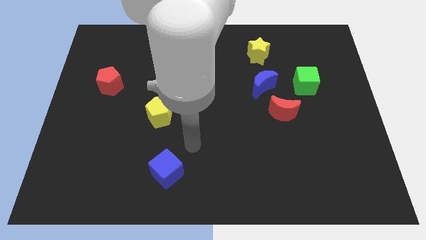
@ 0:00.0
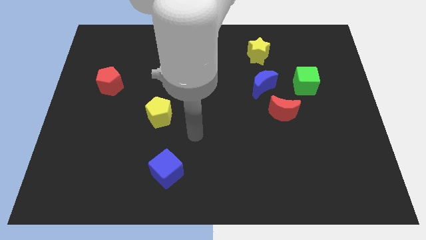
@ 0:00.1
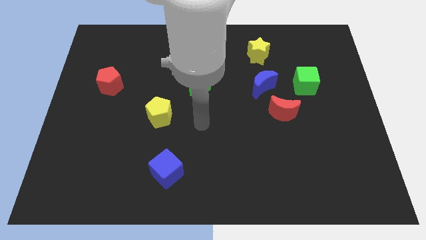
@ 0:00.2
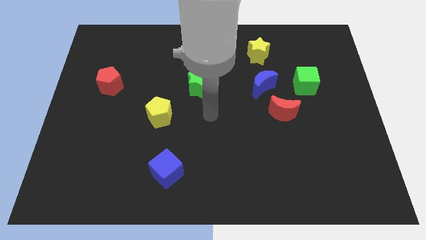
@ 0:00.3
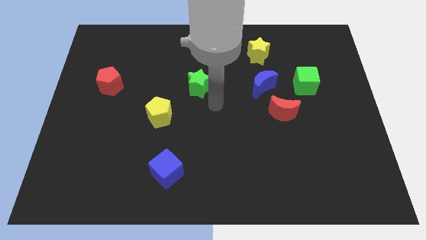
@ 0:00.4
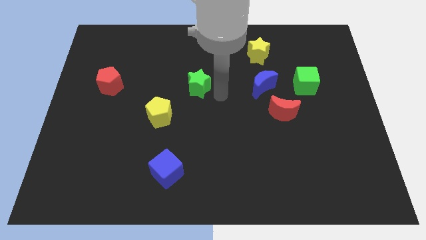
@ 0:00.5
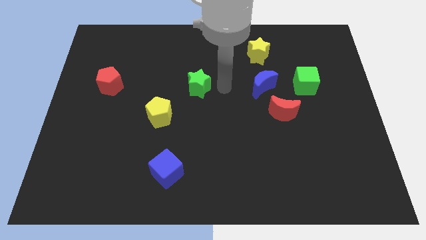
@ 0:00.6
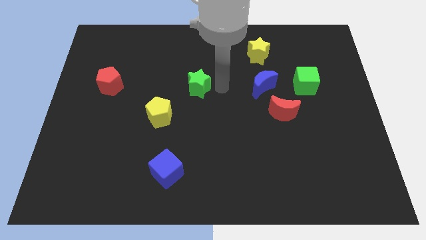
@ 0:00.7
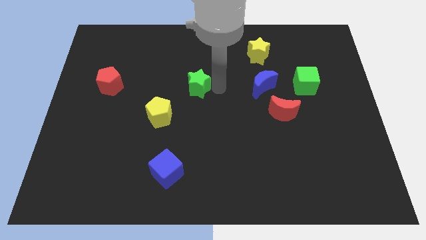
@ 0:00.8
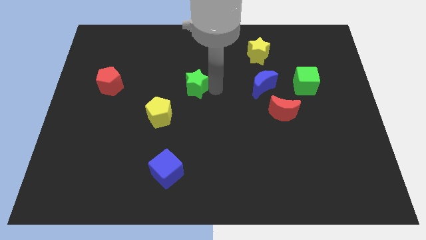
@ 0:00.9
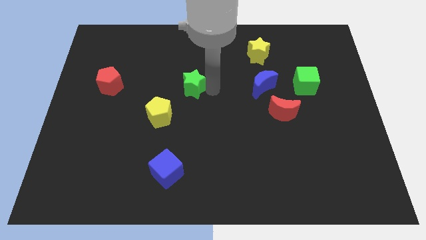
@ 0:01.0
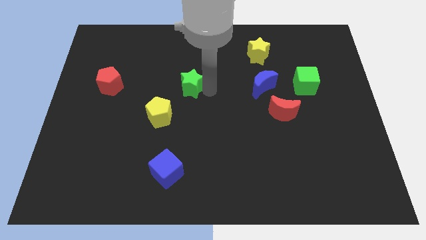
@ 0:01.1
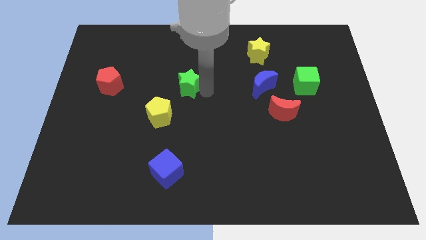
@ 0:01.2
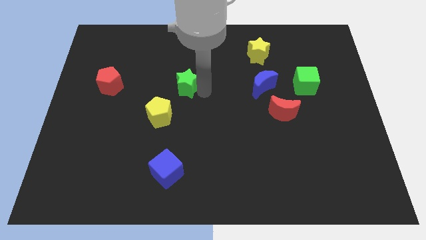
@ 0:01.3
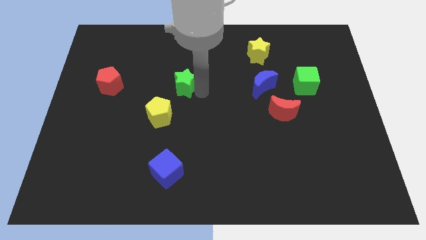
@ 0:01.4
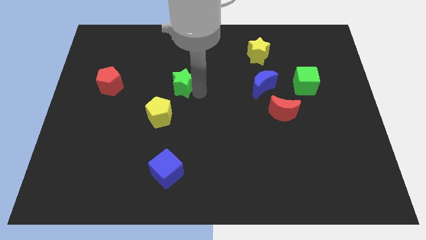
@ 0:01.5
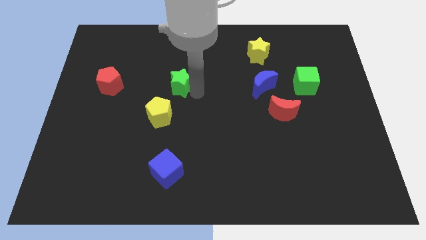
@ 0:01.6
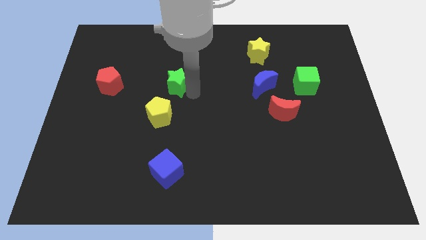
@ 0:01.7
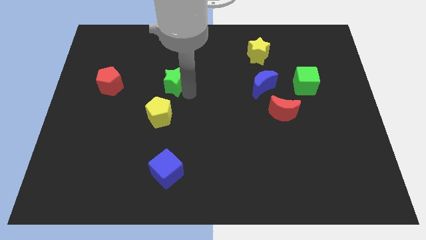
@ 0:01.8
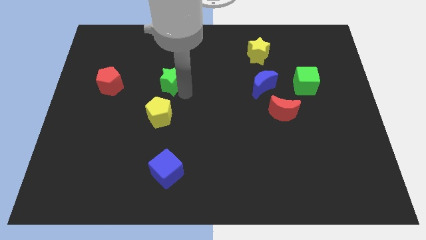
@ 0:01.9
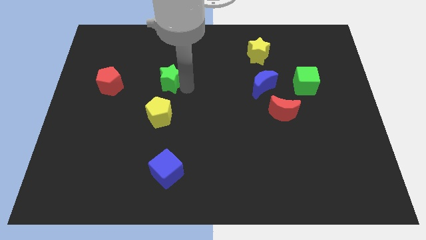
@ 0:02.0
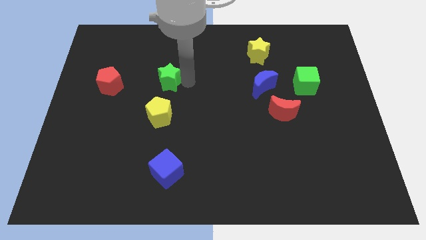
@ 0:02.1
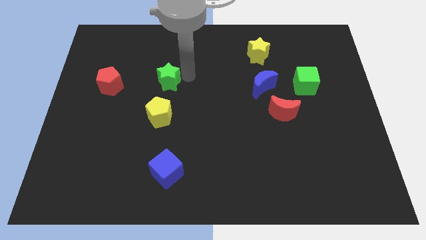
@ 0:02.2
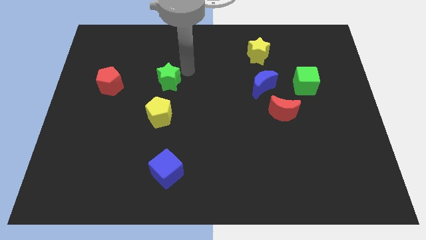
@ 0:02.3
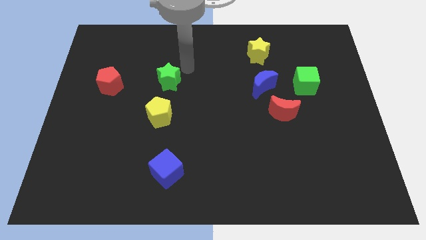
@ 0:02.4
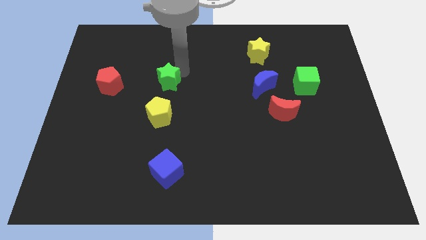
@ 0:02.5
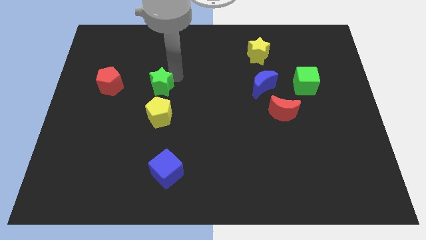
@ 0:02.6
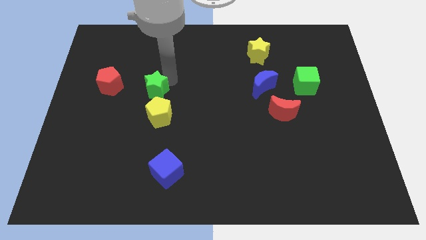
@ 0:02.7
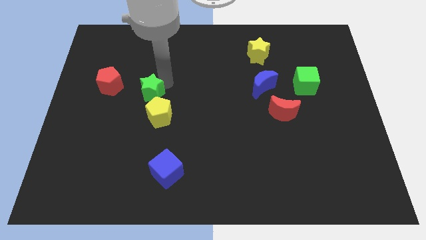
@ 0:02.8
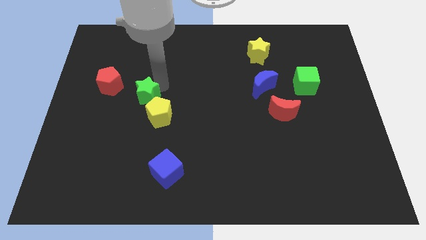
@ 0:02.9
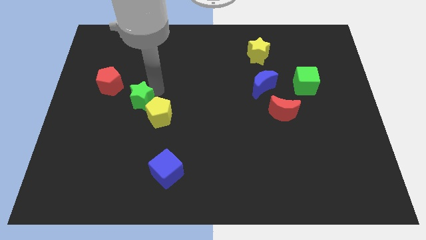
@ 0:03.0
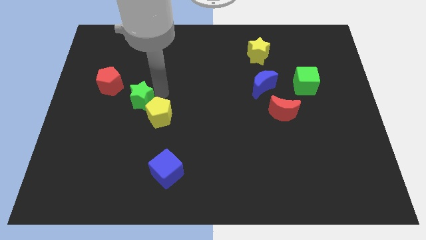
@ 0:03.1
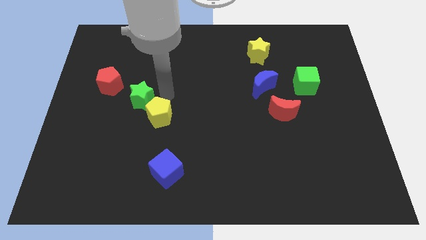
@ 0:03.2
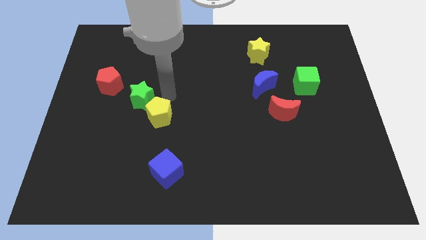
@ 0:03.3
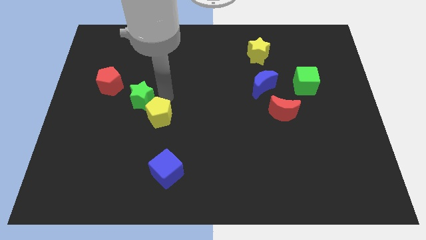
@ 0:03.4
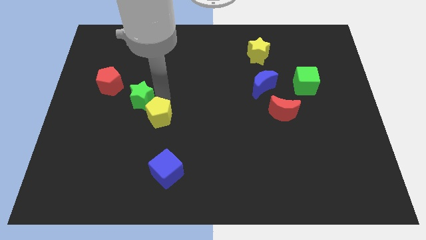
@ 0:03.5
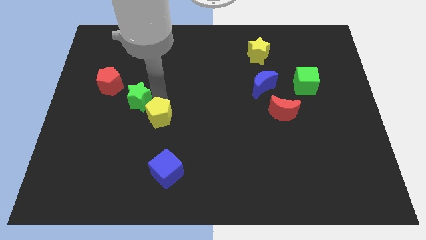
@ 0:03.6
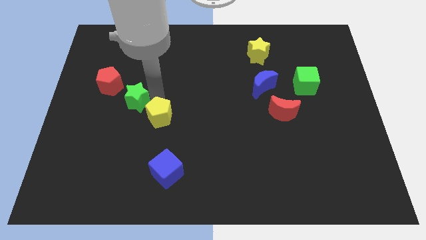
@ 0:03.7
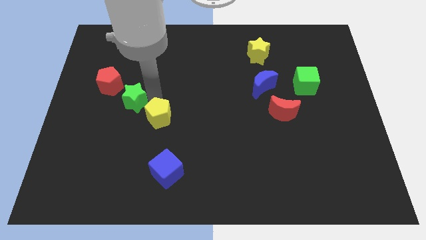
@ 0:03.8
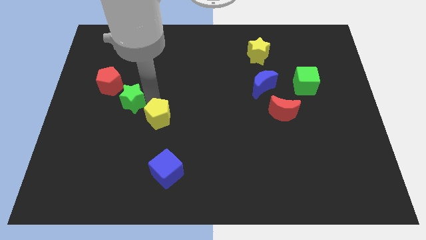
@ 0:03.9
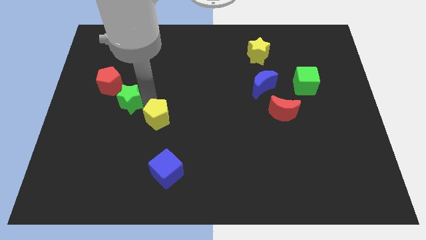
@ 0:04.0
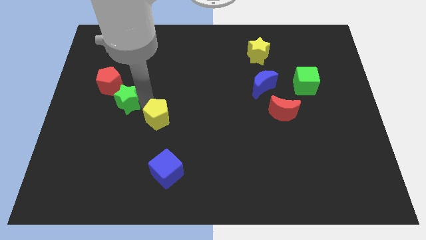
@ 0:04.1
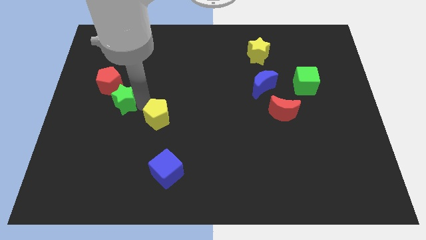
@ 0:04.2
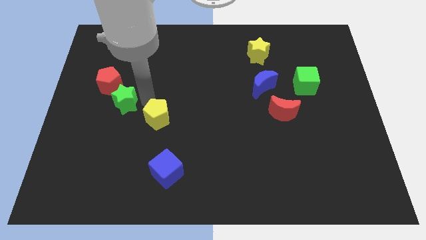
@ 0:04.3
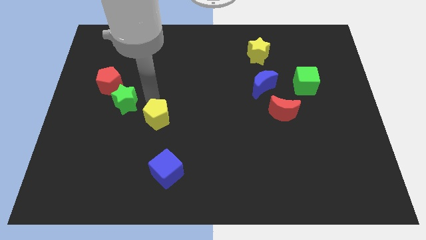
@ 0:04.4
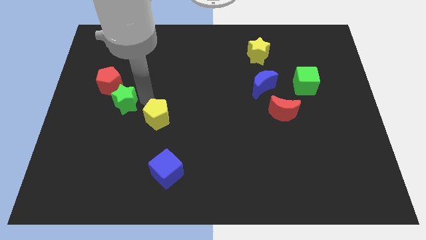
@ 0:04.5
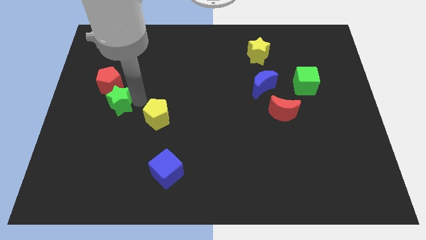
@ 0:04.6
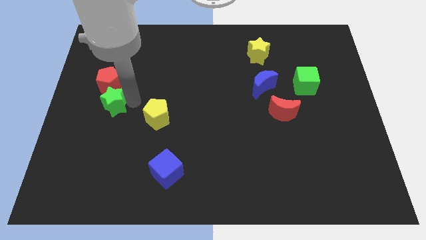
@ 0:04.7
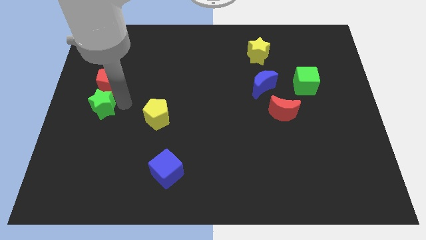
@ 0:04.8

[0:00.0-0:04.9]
slide the green star to the center left

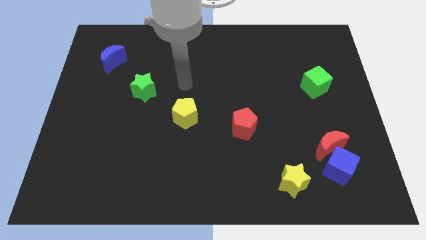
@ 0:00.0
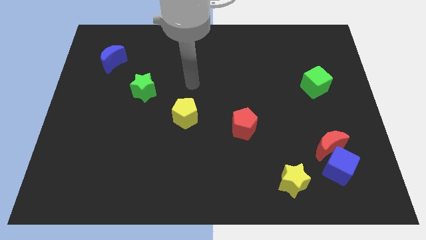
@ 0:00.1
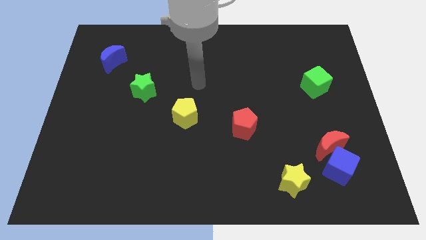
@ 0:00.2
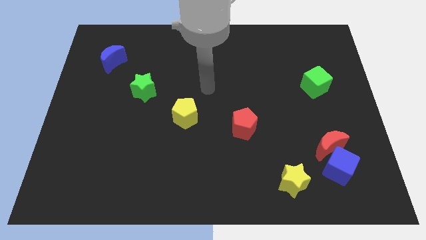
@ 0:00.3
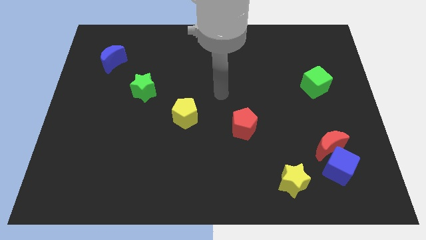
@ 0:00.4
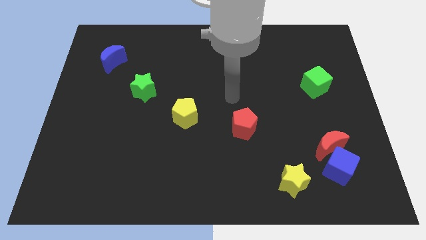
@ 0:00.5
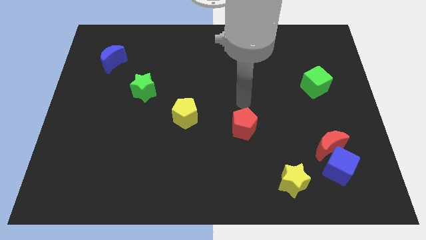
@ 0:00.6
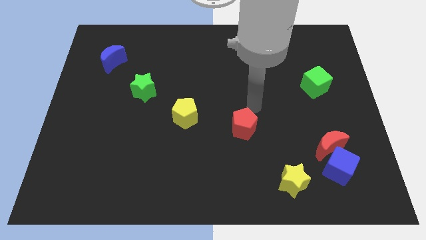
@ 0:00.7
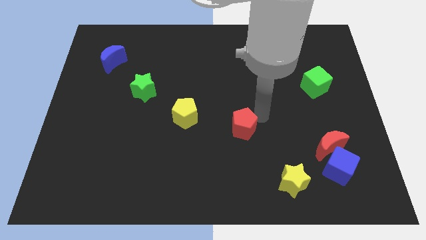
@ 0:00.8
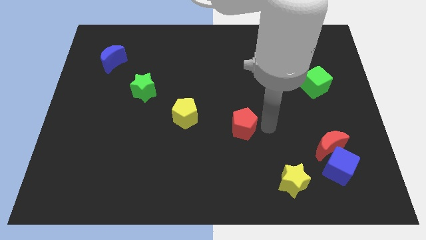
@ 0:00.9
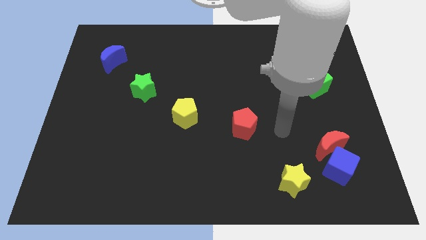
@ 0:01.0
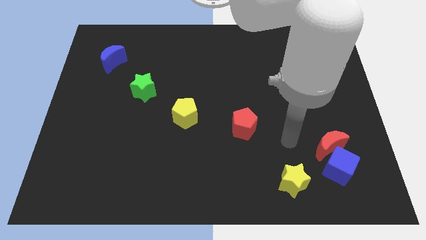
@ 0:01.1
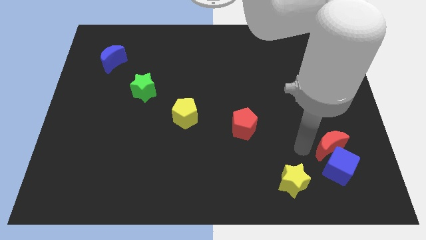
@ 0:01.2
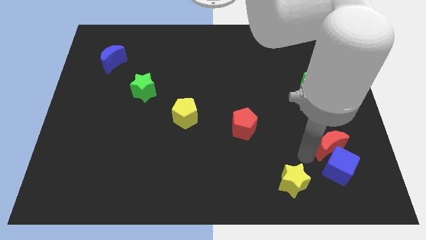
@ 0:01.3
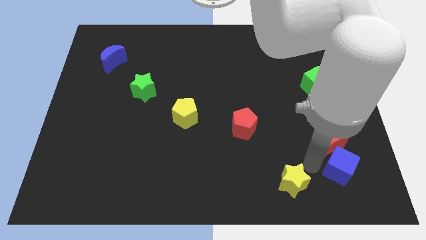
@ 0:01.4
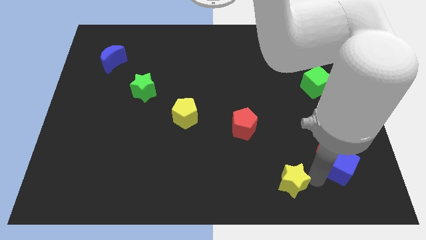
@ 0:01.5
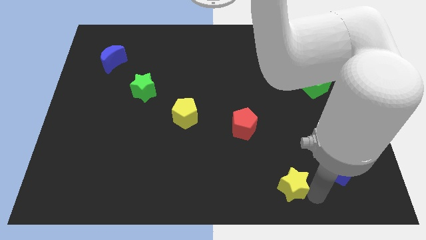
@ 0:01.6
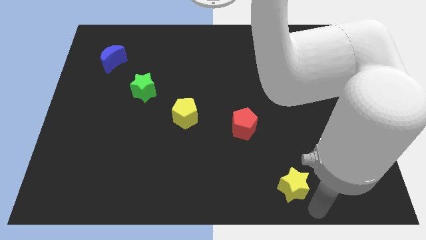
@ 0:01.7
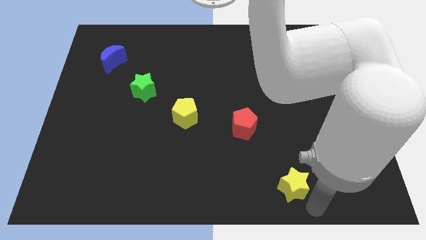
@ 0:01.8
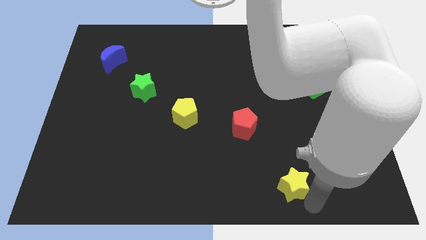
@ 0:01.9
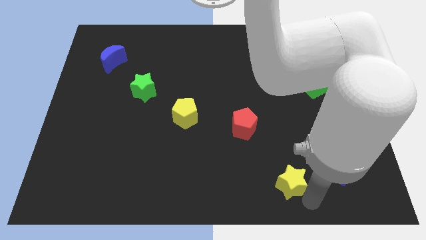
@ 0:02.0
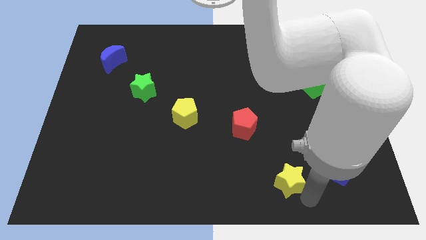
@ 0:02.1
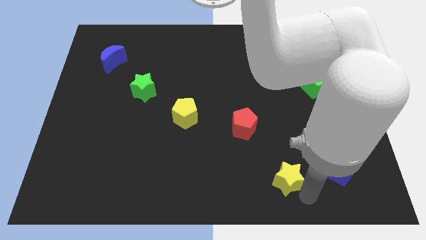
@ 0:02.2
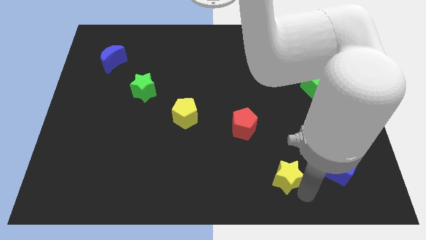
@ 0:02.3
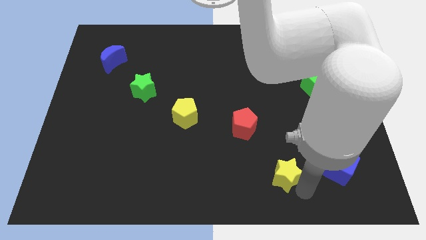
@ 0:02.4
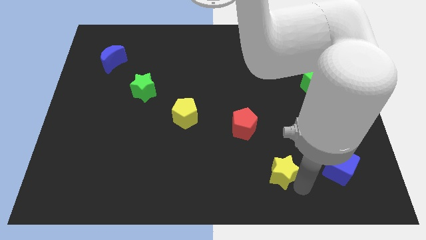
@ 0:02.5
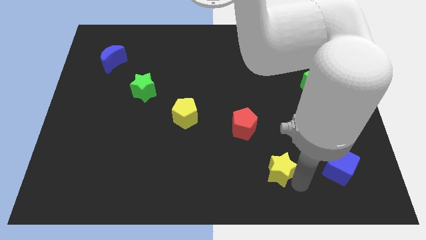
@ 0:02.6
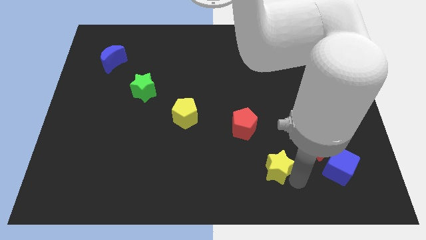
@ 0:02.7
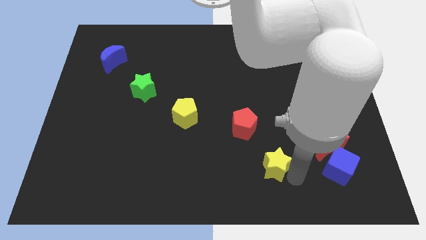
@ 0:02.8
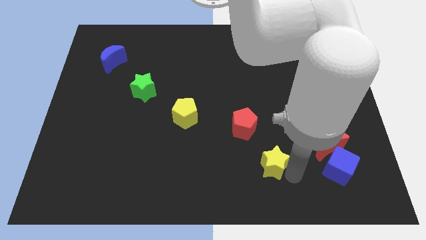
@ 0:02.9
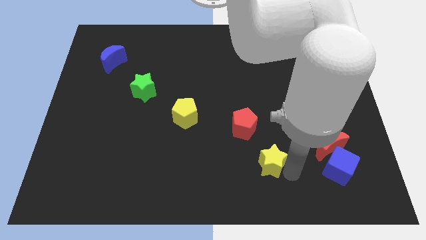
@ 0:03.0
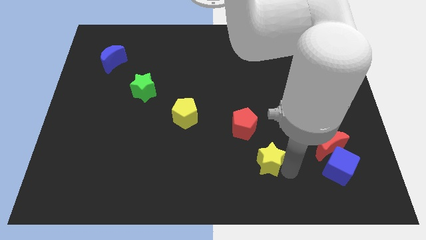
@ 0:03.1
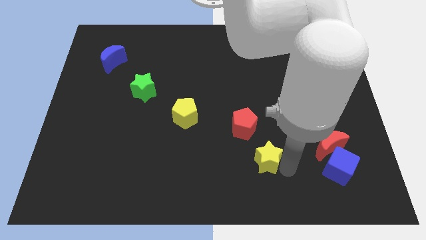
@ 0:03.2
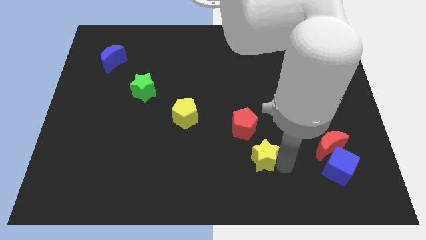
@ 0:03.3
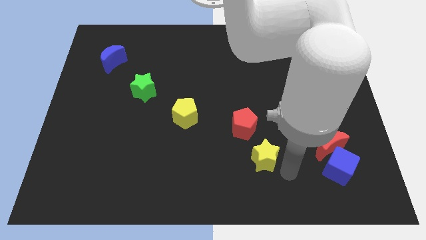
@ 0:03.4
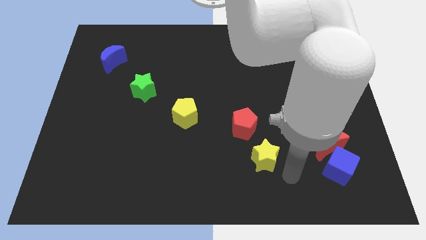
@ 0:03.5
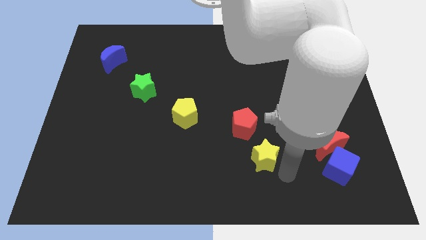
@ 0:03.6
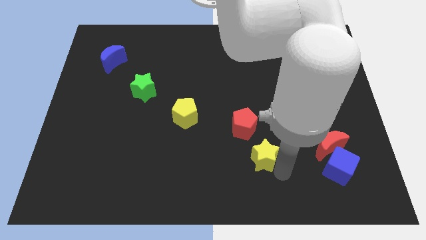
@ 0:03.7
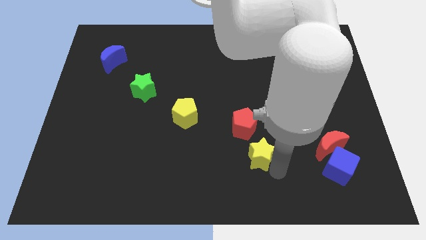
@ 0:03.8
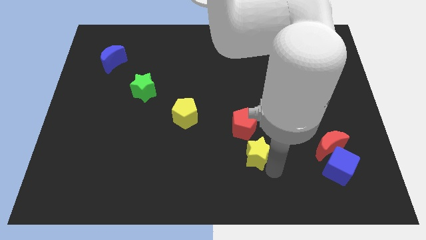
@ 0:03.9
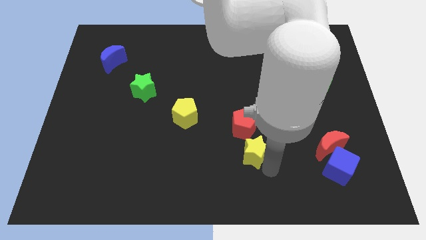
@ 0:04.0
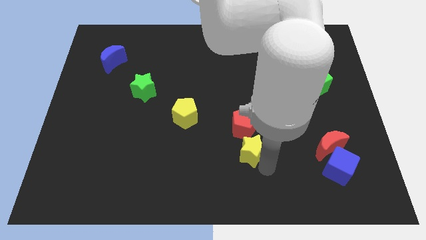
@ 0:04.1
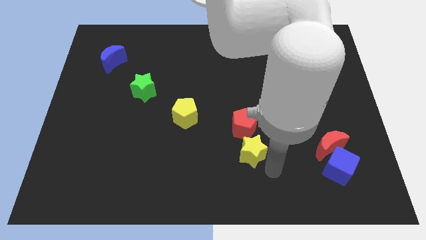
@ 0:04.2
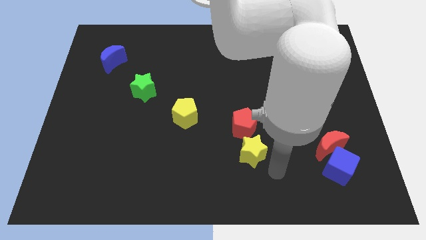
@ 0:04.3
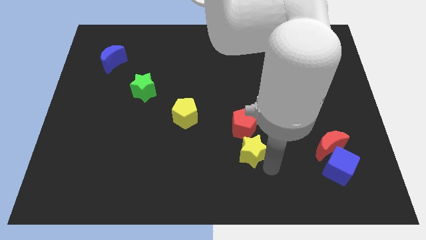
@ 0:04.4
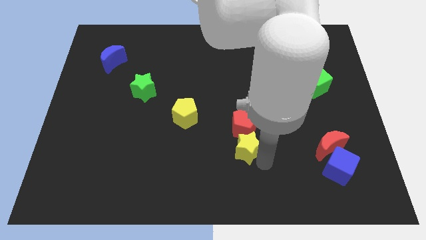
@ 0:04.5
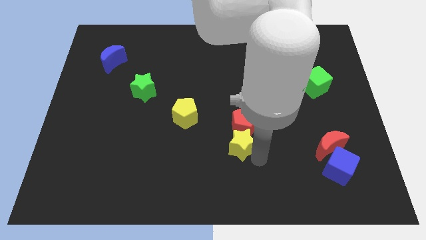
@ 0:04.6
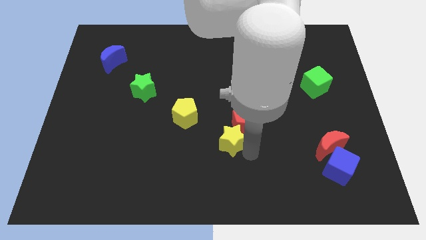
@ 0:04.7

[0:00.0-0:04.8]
slide the yellow star to the center
